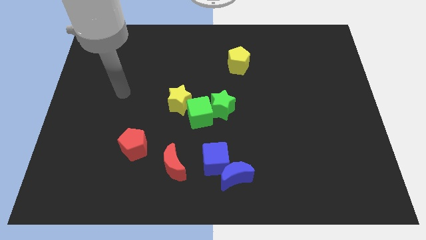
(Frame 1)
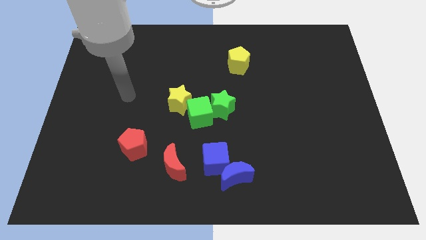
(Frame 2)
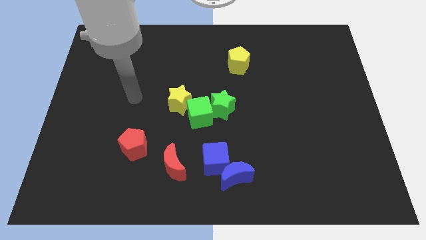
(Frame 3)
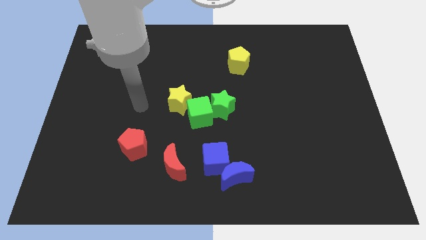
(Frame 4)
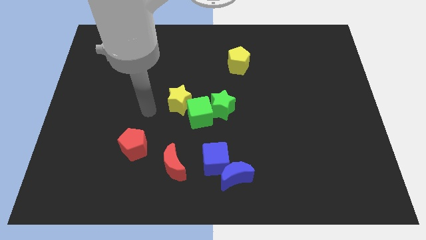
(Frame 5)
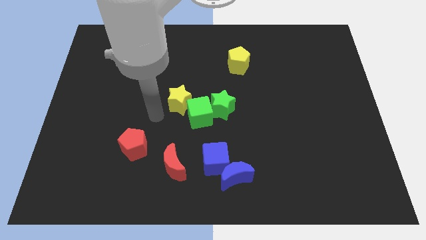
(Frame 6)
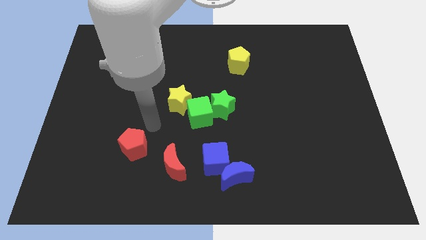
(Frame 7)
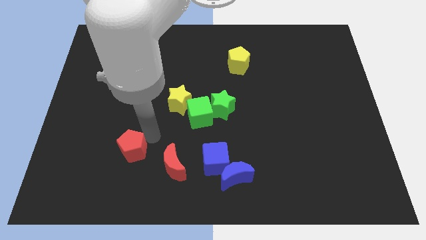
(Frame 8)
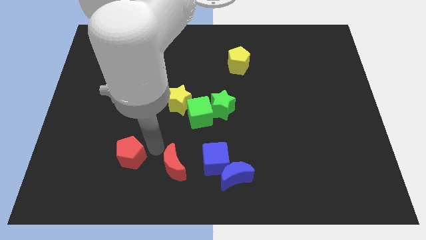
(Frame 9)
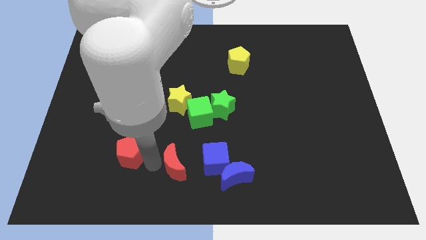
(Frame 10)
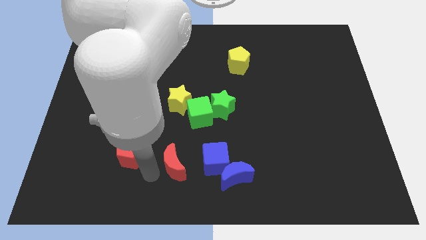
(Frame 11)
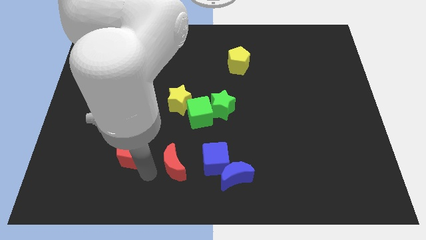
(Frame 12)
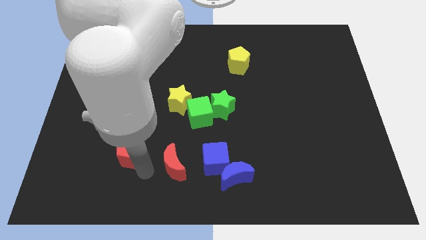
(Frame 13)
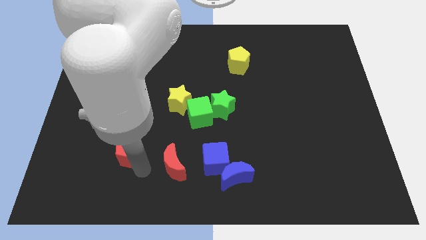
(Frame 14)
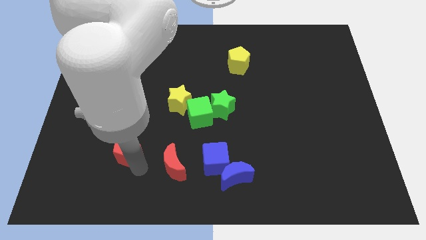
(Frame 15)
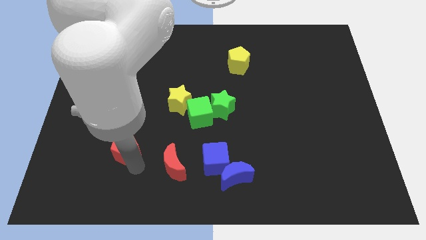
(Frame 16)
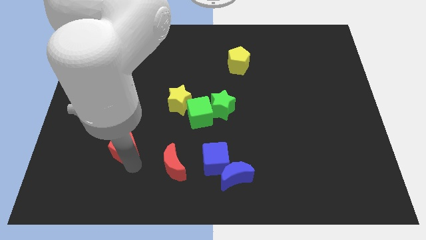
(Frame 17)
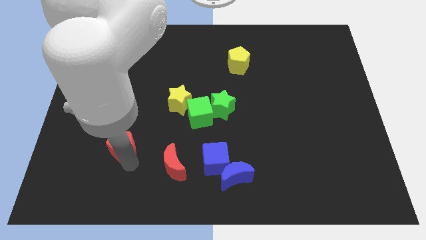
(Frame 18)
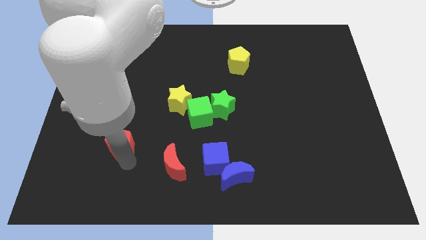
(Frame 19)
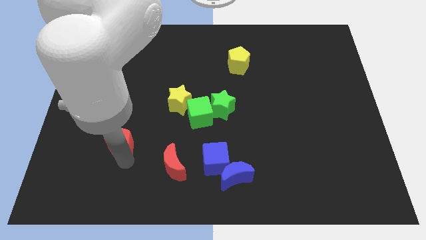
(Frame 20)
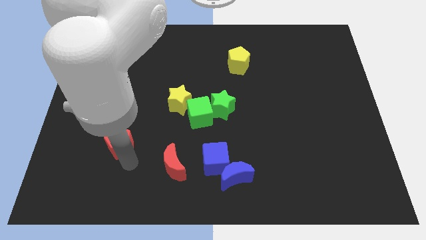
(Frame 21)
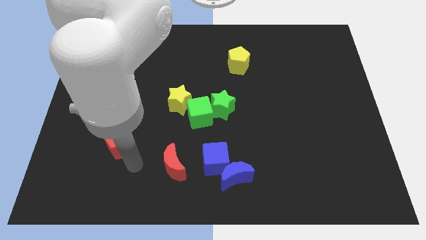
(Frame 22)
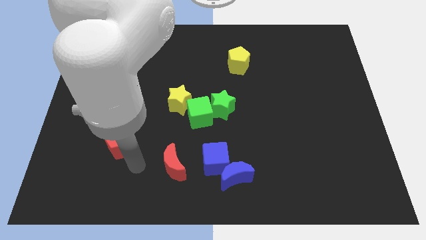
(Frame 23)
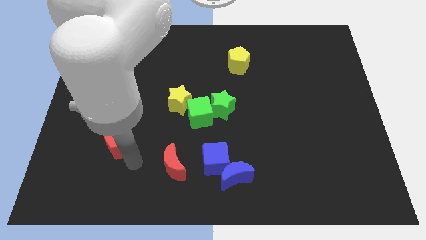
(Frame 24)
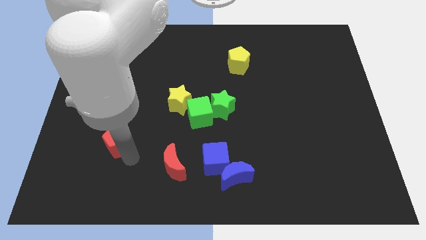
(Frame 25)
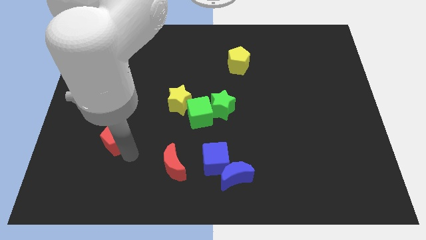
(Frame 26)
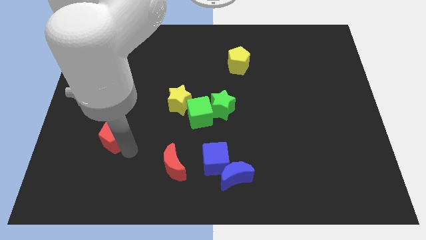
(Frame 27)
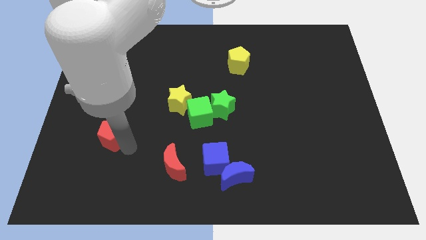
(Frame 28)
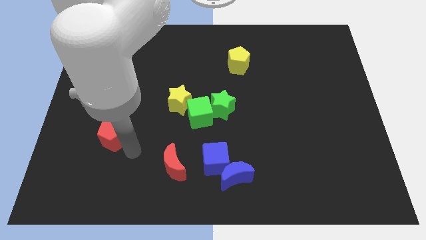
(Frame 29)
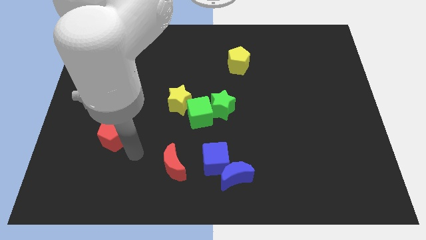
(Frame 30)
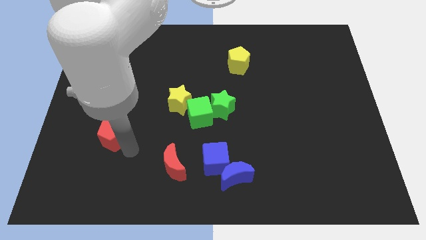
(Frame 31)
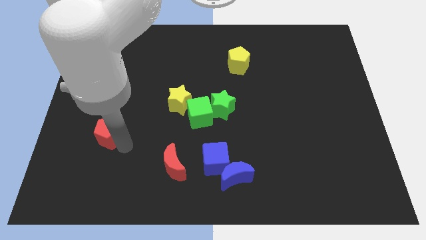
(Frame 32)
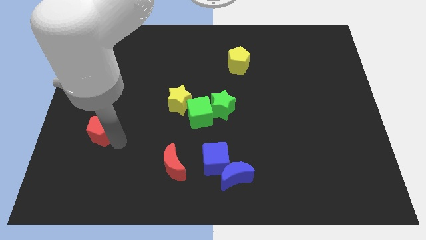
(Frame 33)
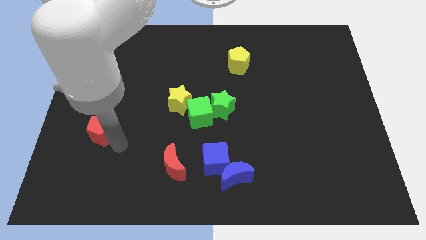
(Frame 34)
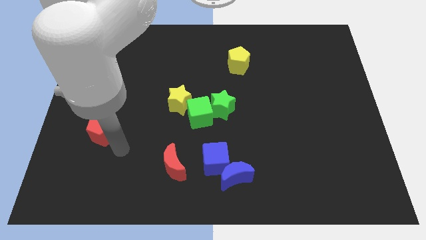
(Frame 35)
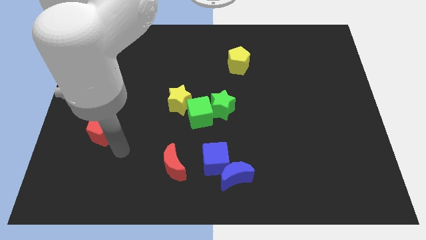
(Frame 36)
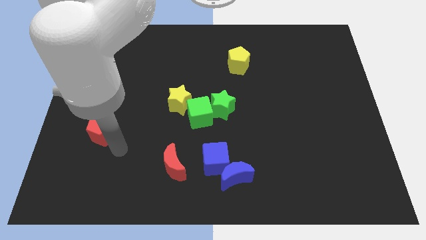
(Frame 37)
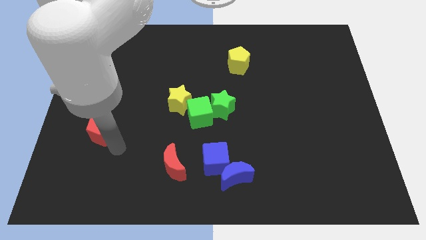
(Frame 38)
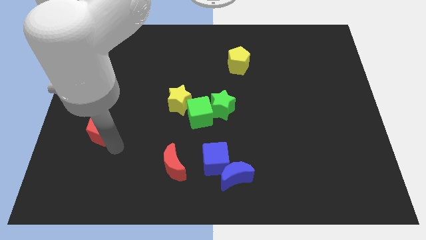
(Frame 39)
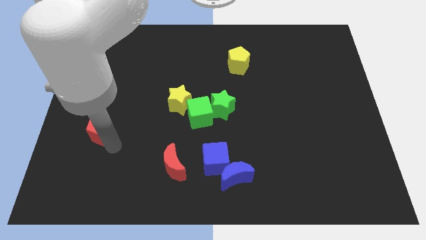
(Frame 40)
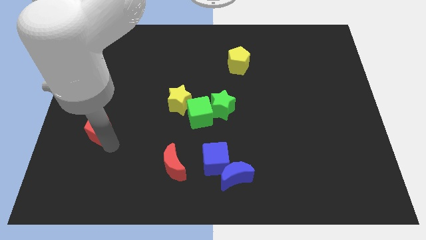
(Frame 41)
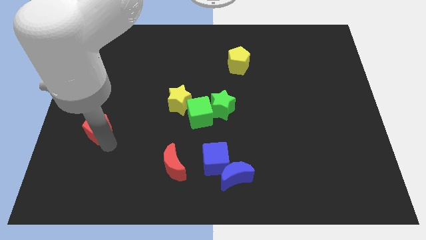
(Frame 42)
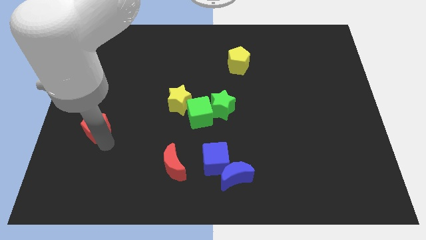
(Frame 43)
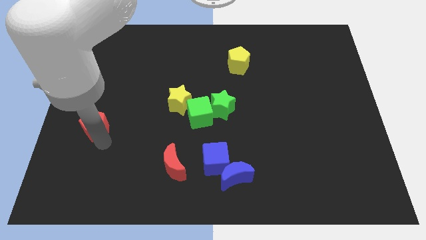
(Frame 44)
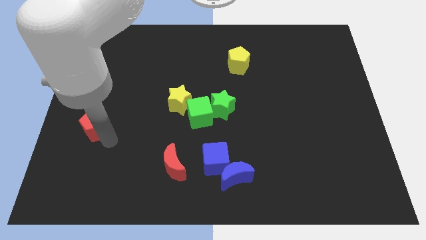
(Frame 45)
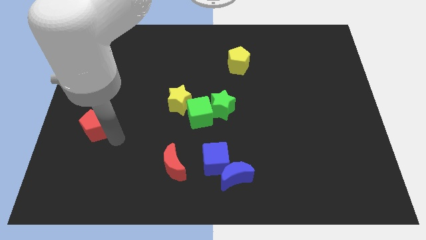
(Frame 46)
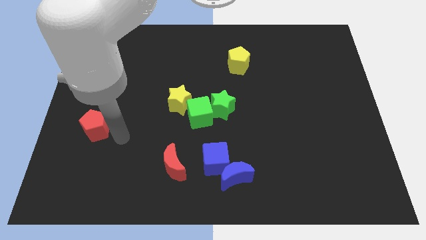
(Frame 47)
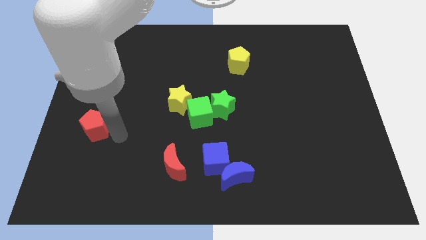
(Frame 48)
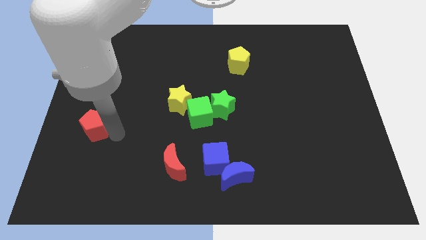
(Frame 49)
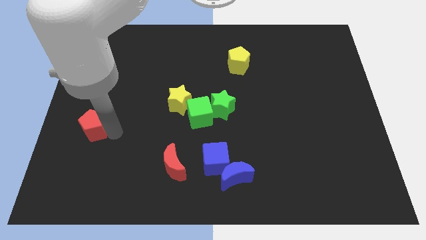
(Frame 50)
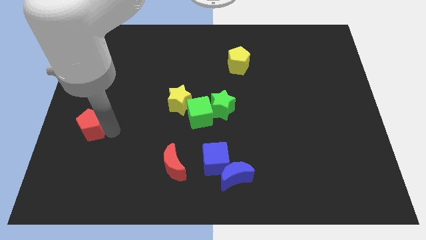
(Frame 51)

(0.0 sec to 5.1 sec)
push the red pentagon to the left side

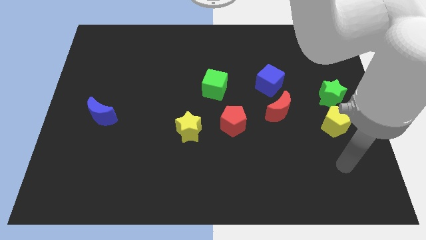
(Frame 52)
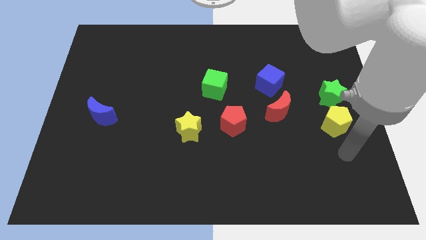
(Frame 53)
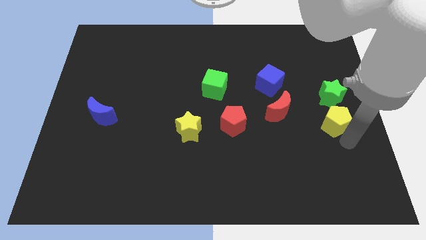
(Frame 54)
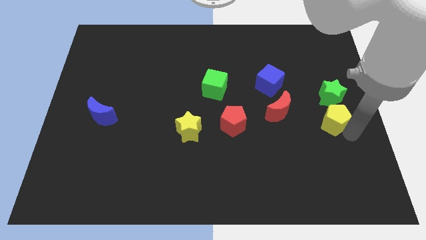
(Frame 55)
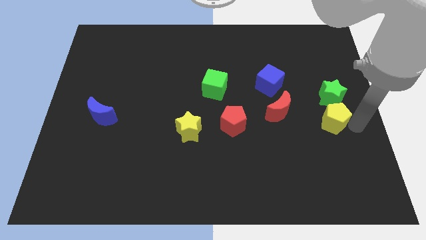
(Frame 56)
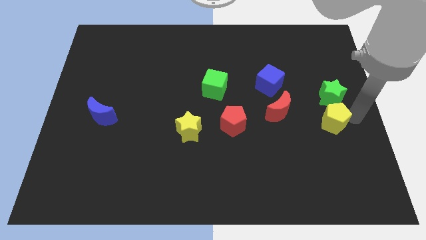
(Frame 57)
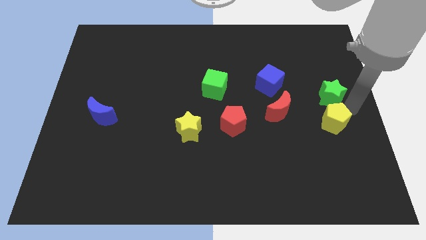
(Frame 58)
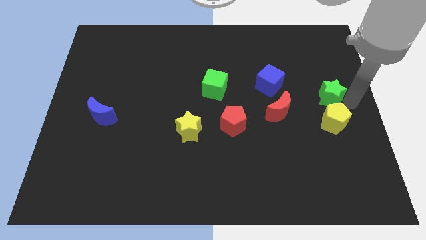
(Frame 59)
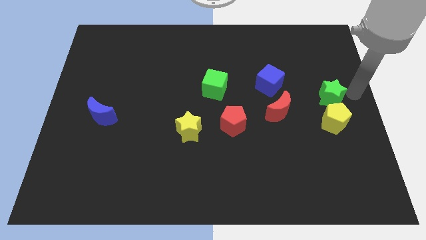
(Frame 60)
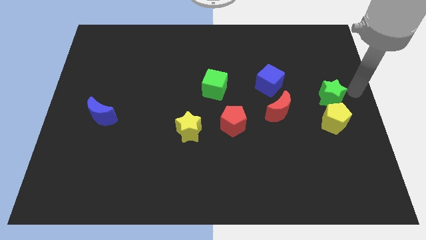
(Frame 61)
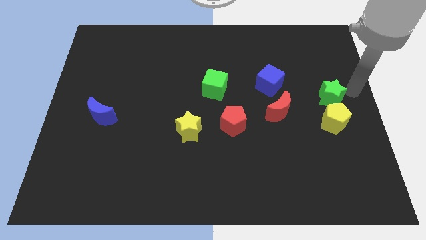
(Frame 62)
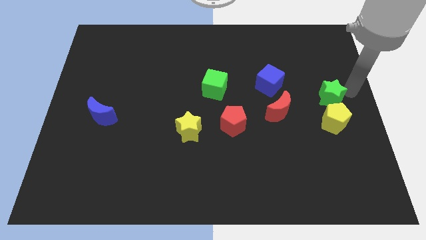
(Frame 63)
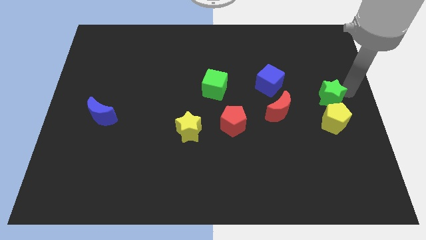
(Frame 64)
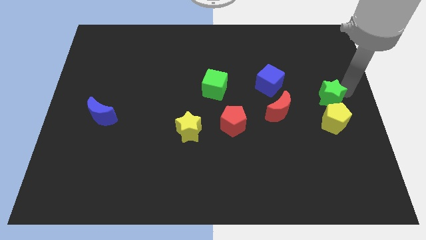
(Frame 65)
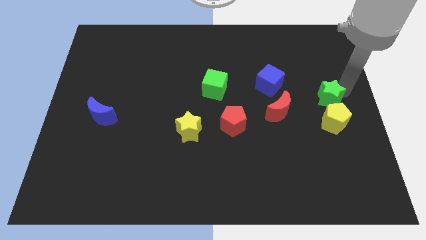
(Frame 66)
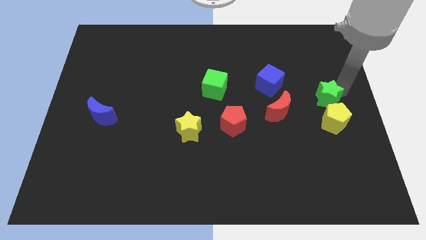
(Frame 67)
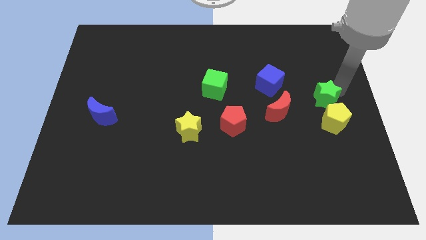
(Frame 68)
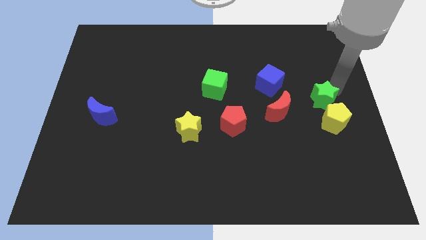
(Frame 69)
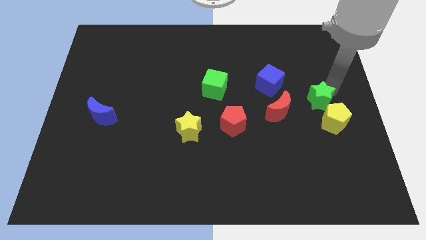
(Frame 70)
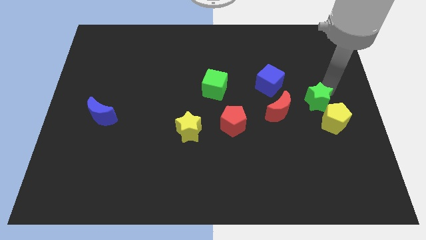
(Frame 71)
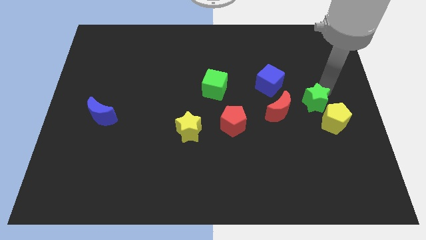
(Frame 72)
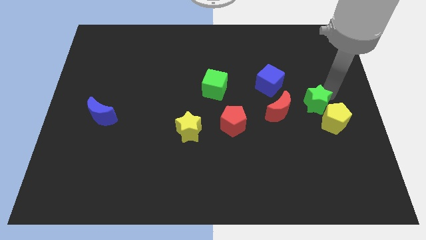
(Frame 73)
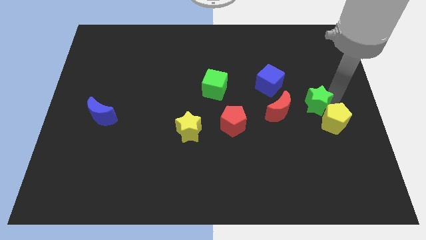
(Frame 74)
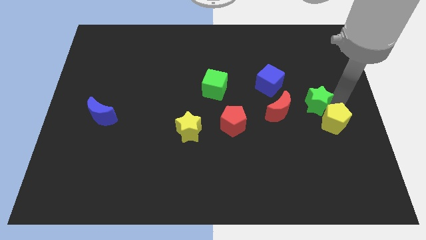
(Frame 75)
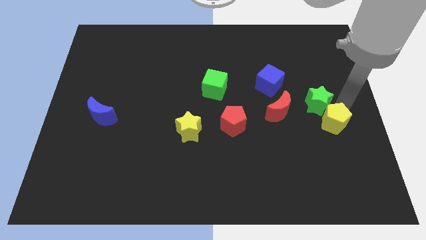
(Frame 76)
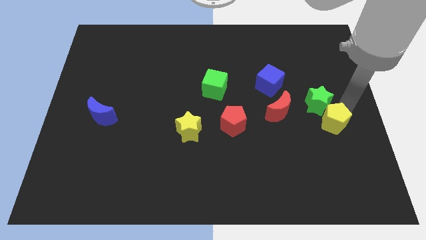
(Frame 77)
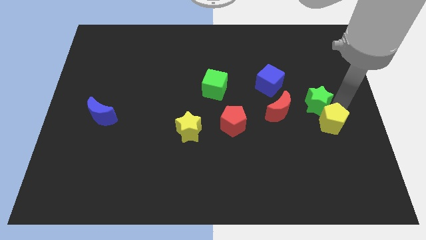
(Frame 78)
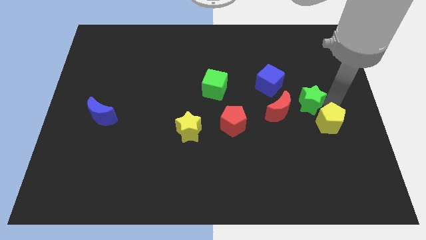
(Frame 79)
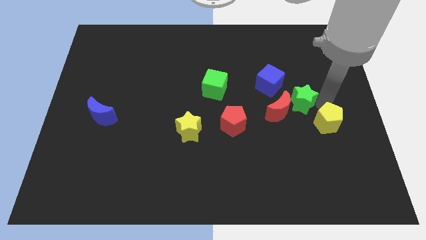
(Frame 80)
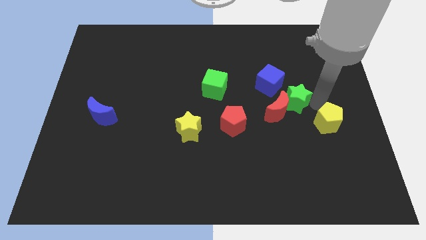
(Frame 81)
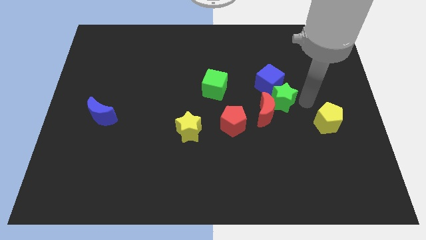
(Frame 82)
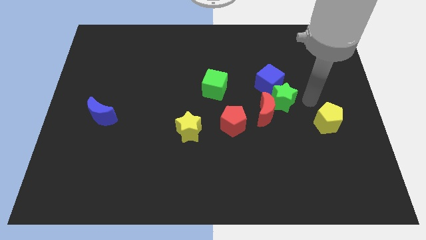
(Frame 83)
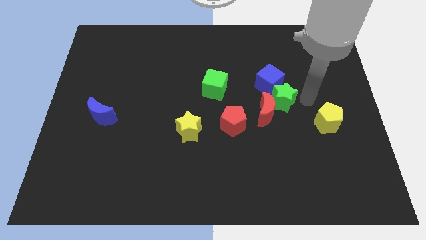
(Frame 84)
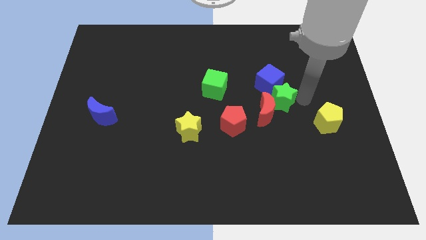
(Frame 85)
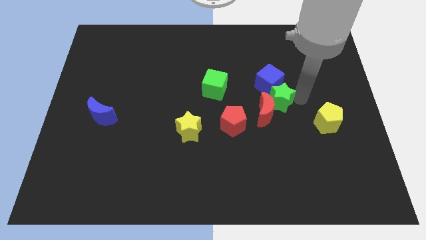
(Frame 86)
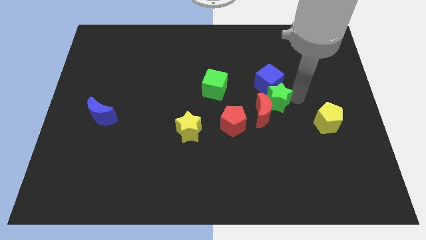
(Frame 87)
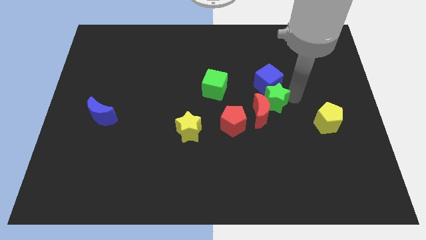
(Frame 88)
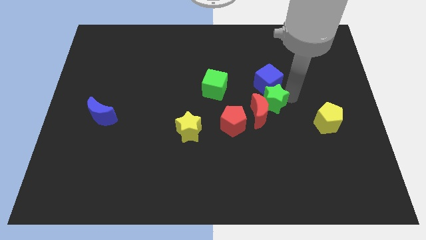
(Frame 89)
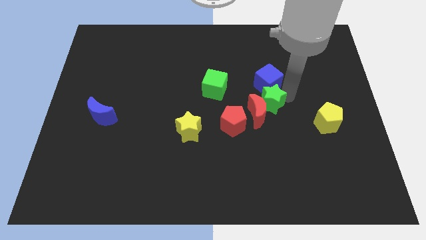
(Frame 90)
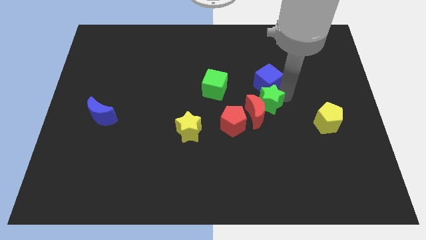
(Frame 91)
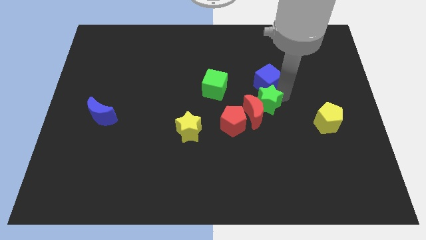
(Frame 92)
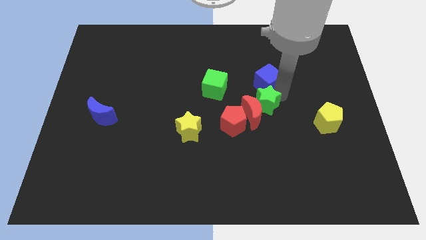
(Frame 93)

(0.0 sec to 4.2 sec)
push the green star to the center
